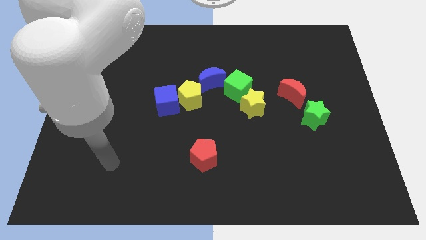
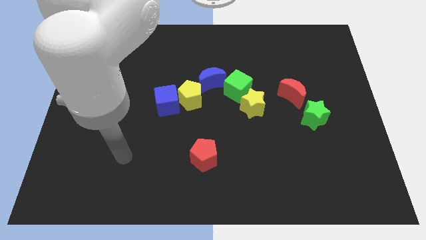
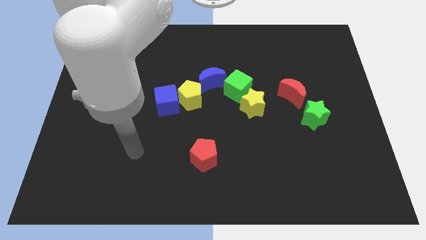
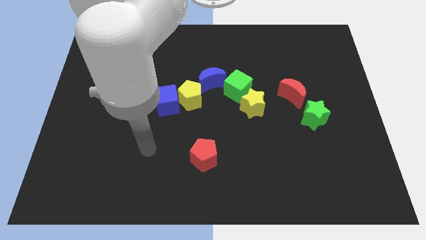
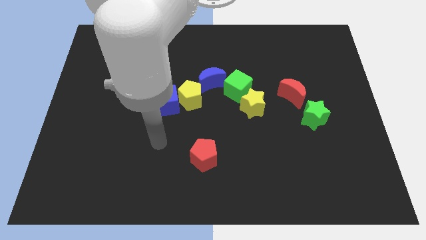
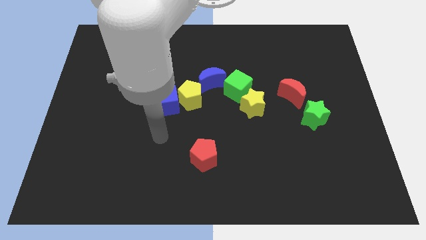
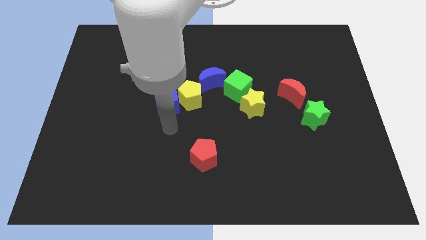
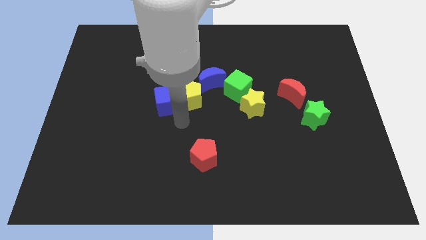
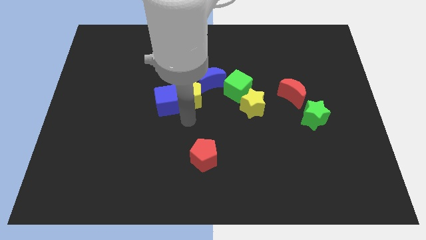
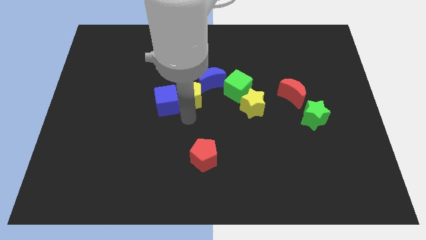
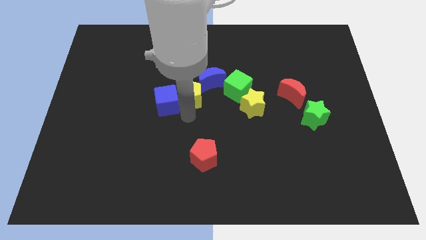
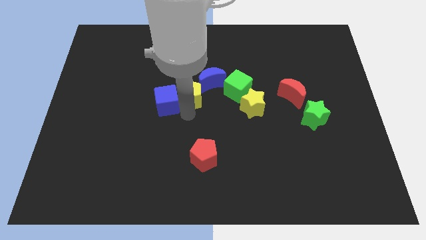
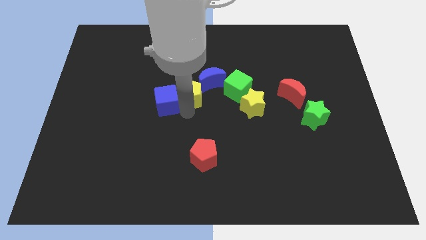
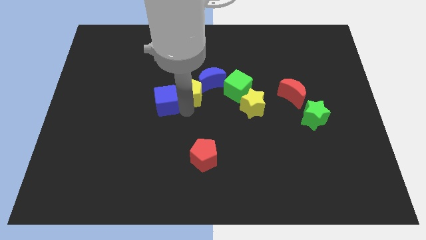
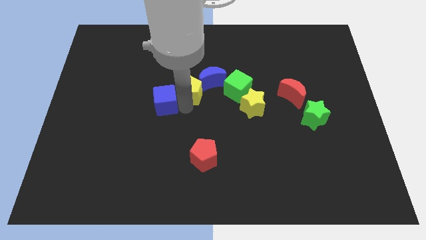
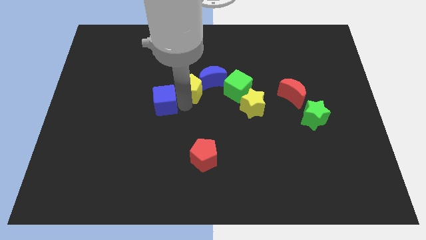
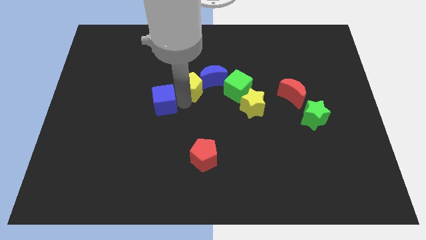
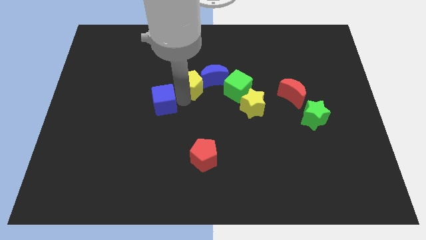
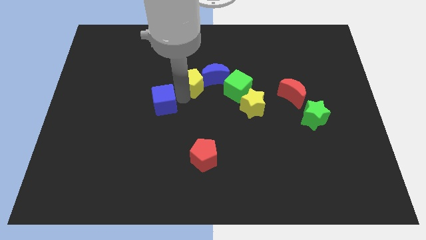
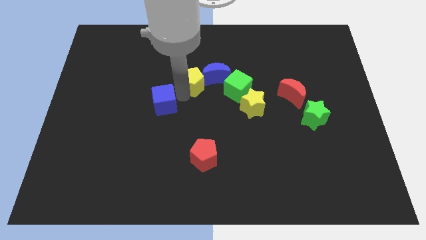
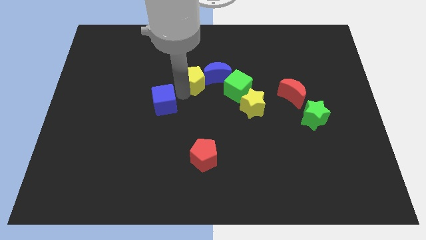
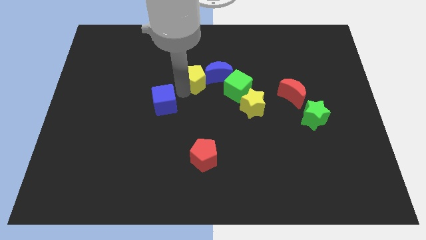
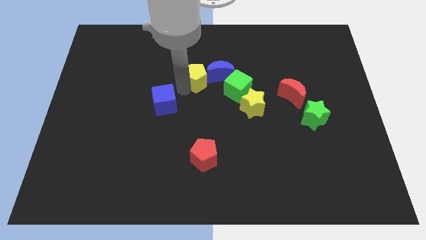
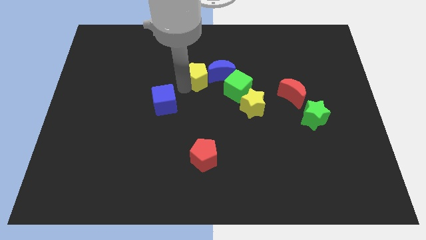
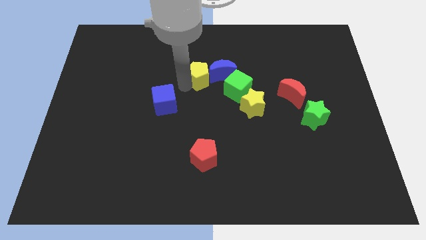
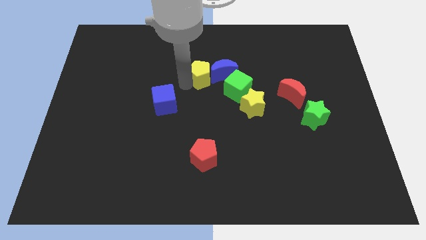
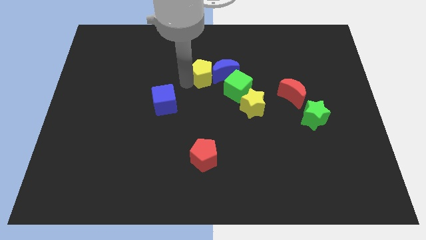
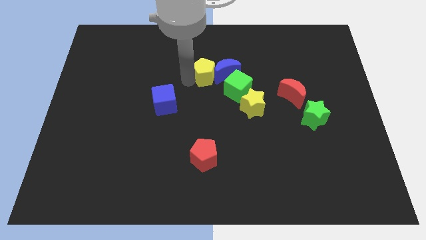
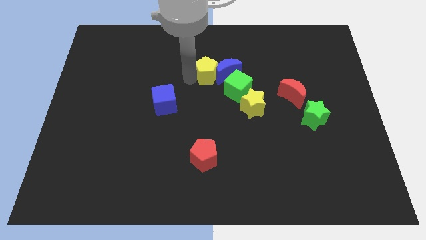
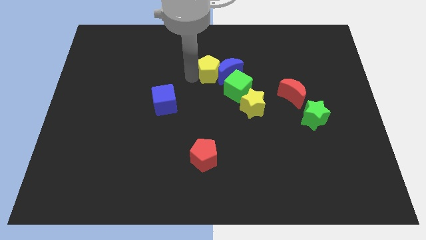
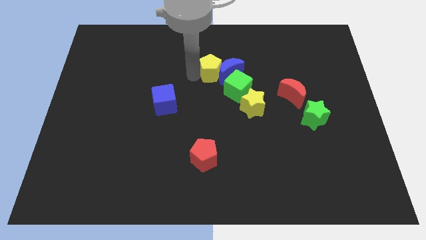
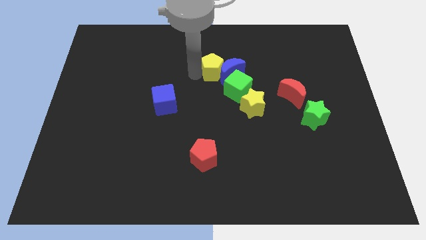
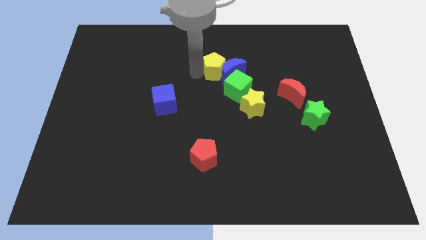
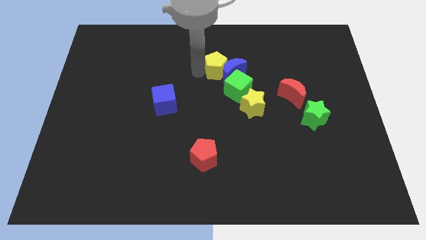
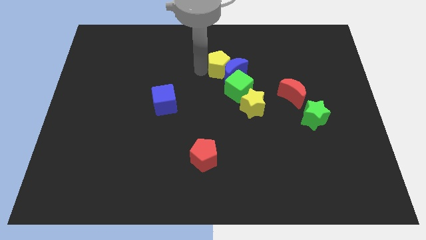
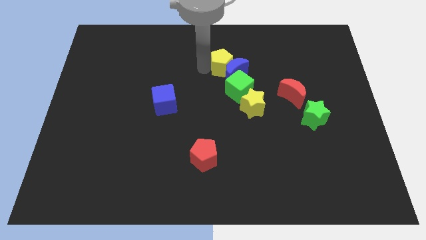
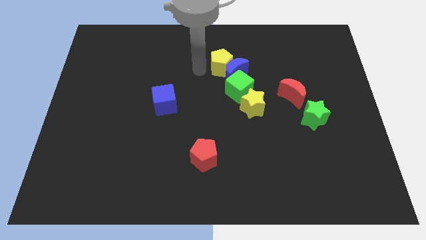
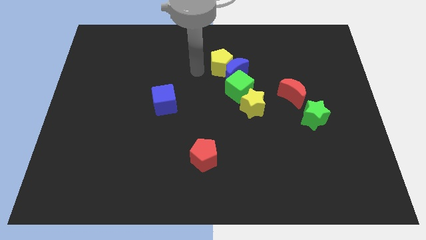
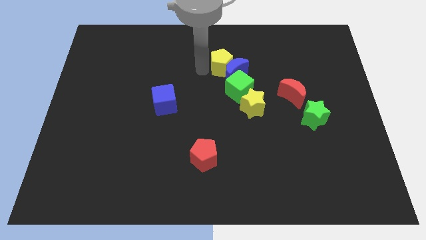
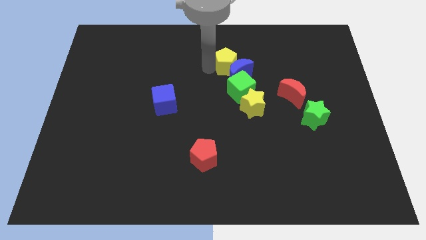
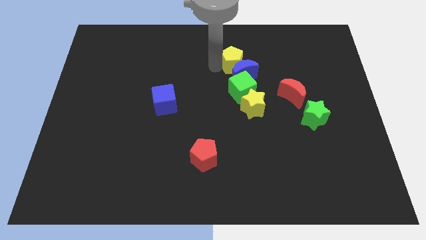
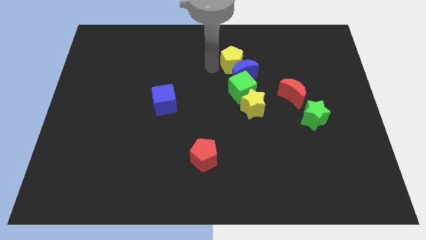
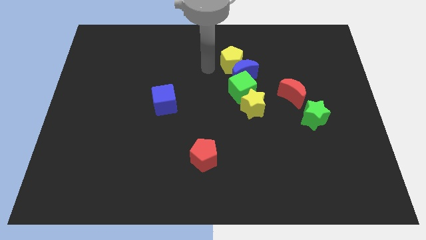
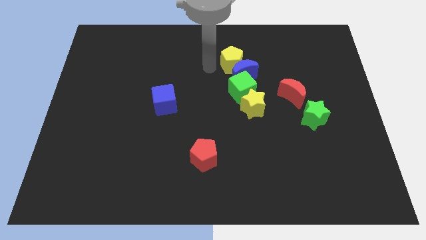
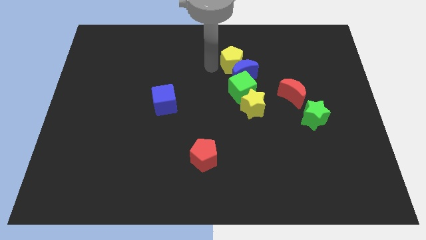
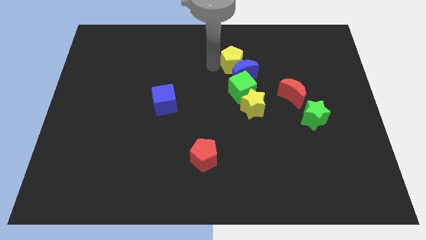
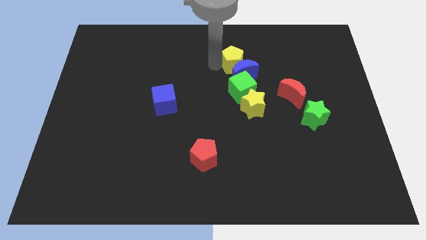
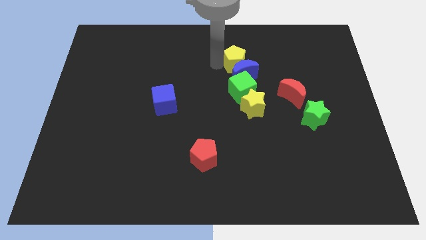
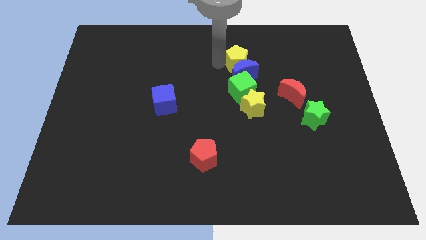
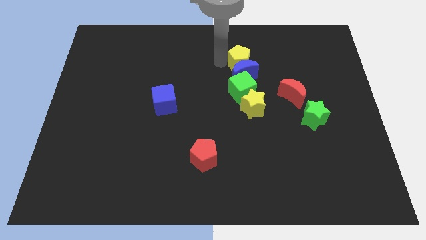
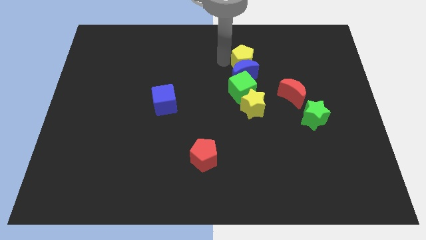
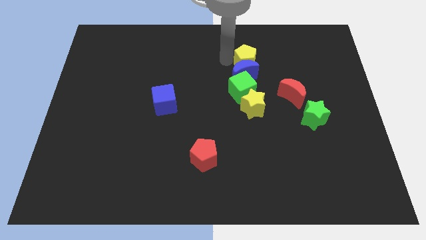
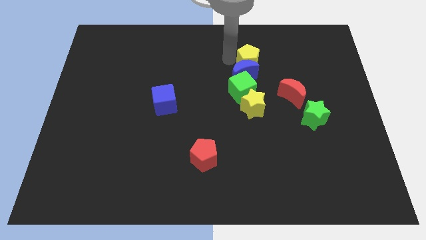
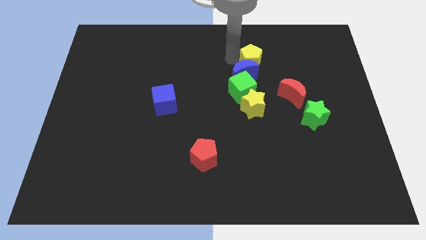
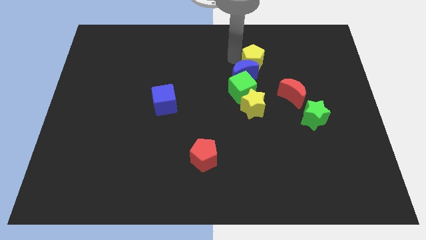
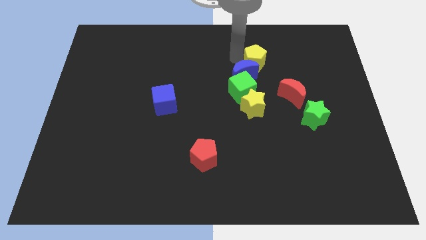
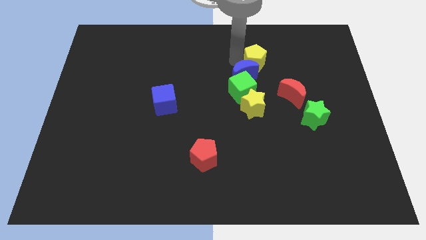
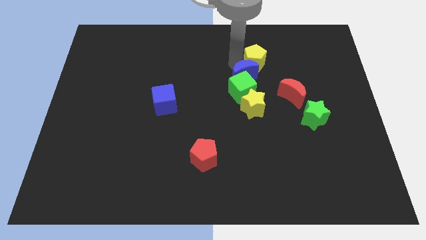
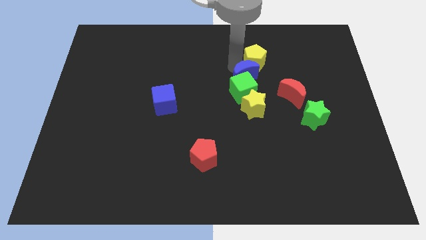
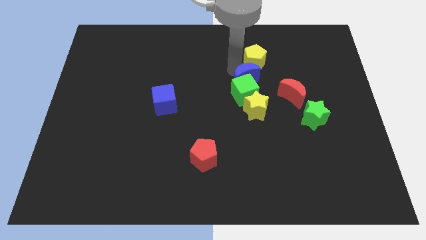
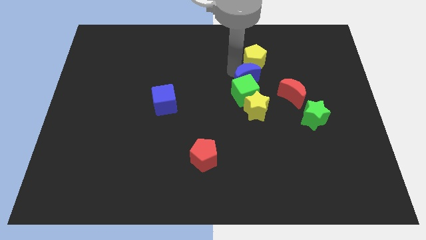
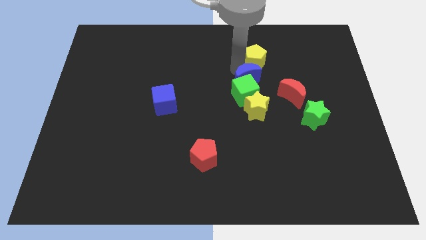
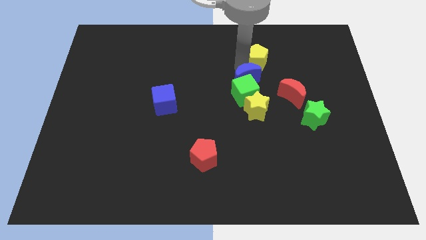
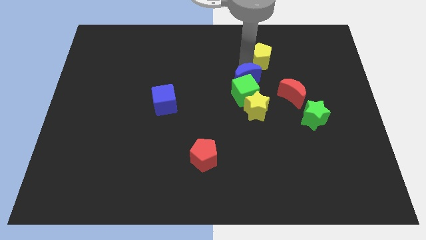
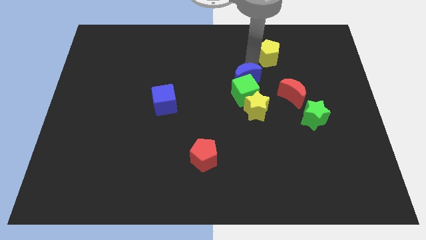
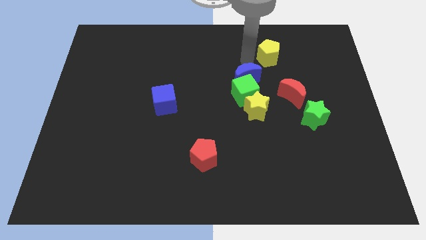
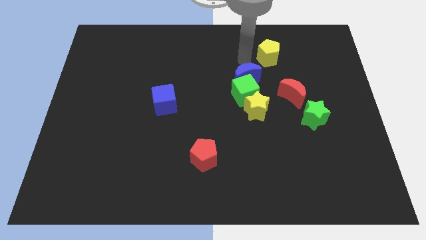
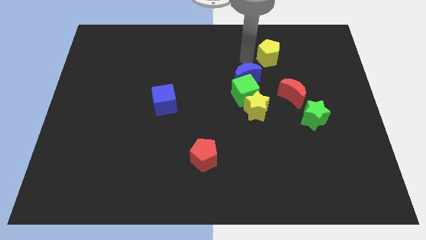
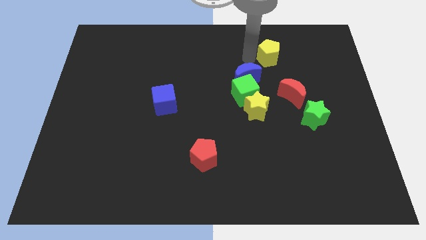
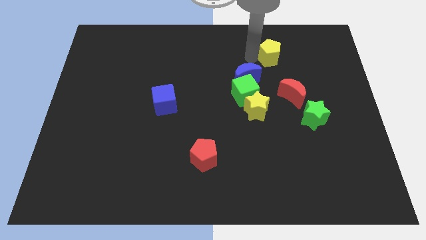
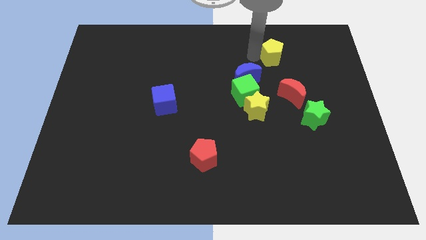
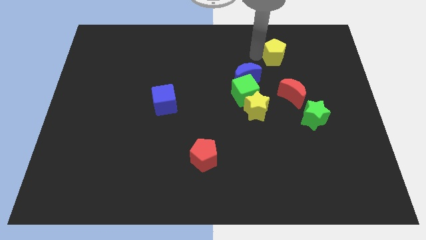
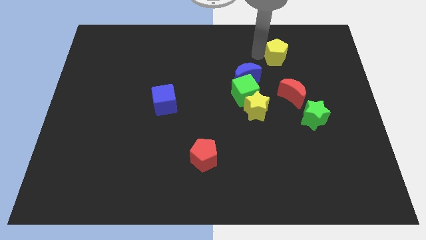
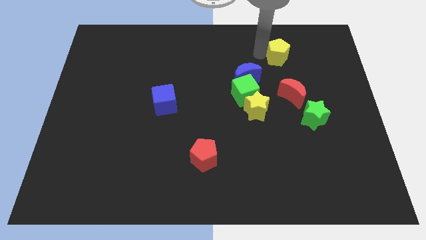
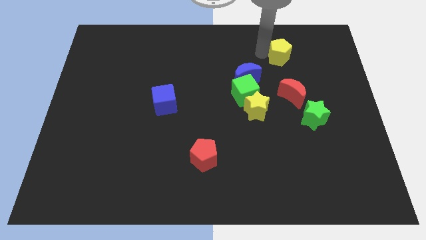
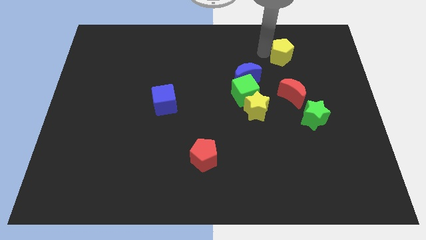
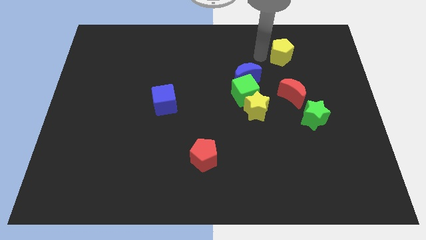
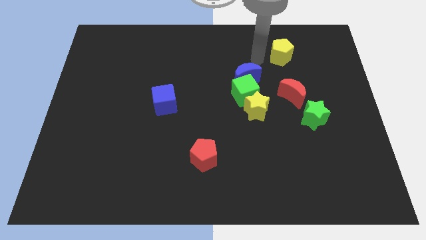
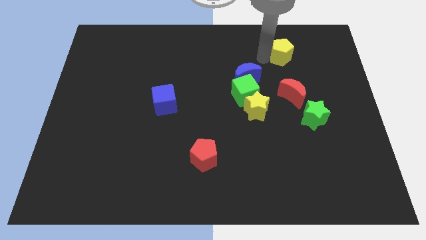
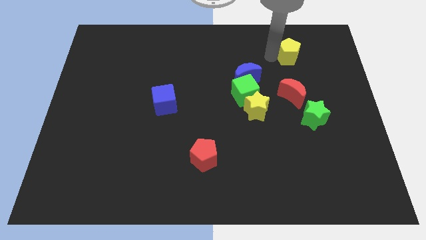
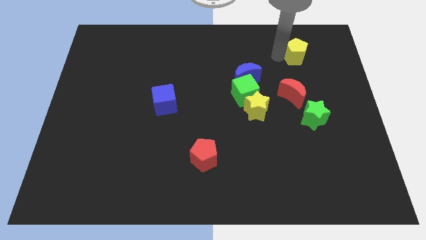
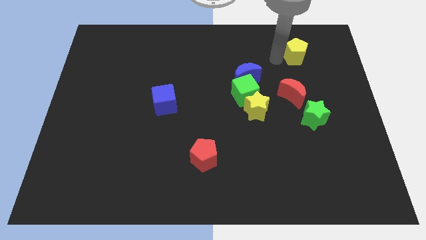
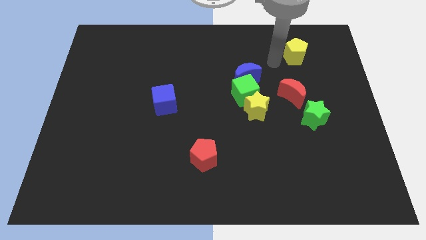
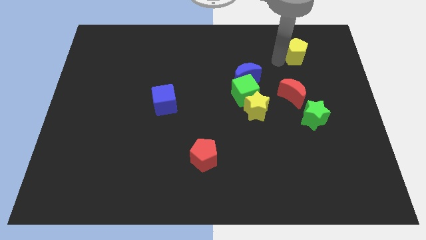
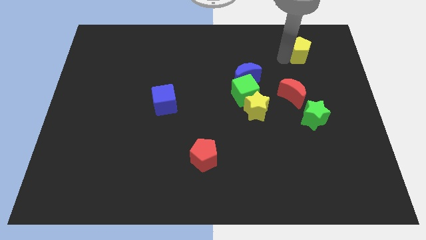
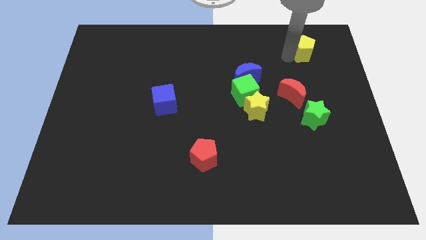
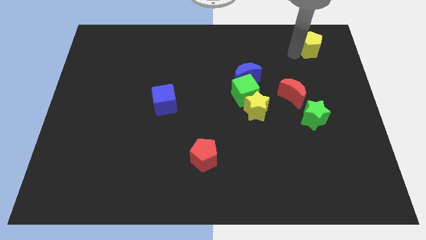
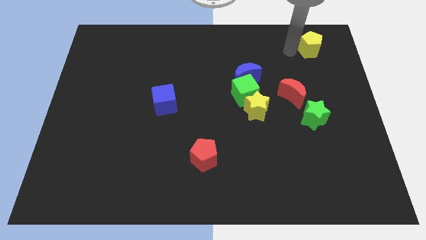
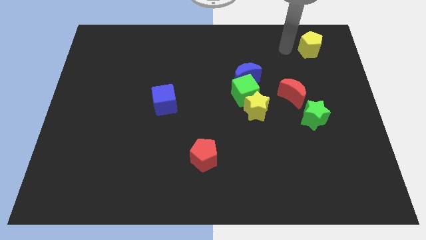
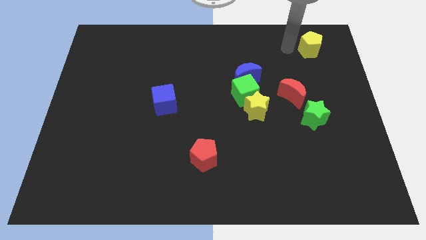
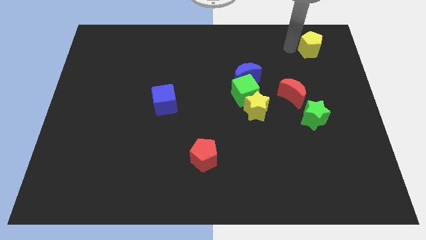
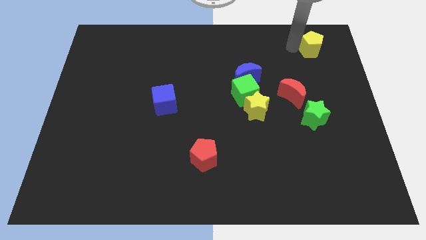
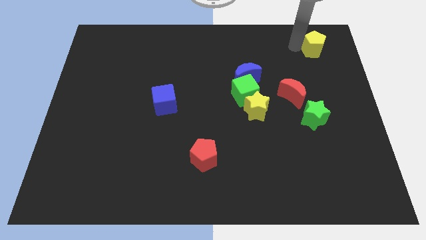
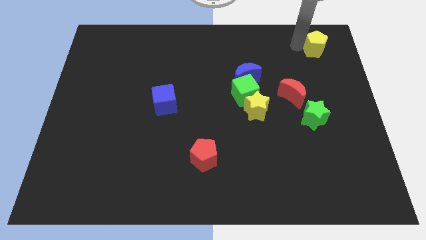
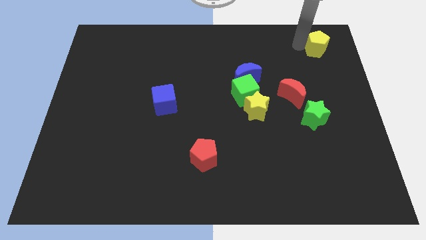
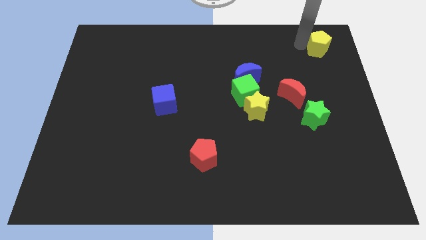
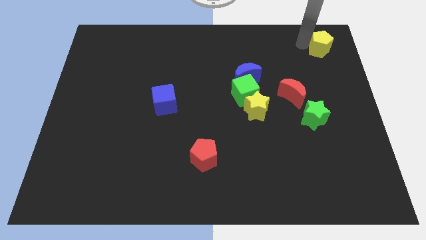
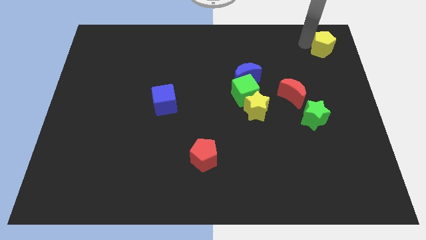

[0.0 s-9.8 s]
slide the yellow pentagon to the top right of the board
